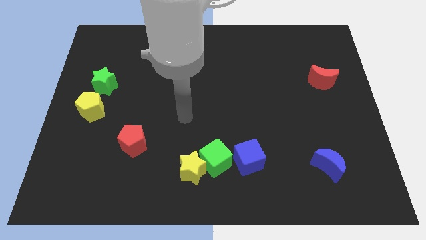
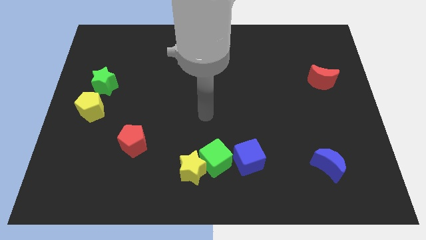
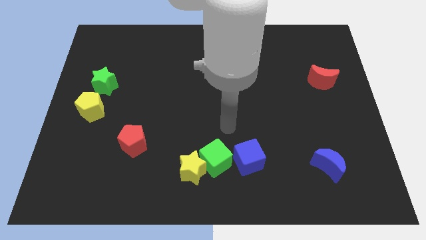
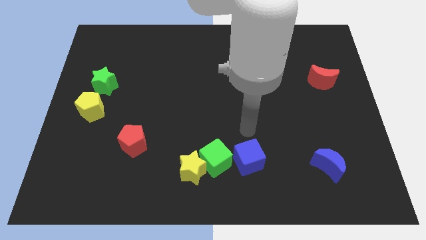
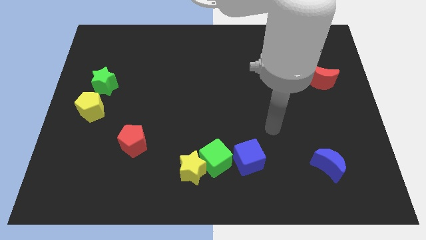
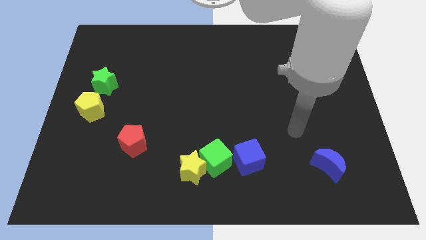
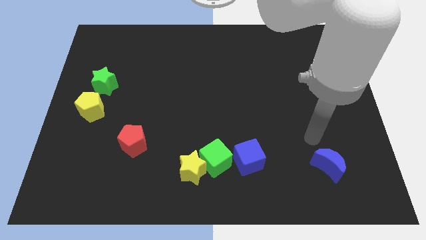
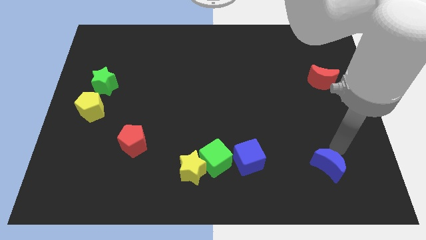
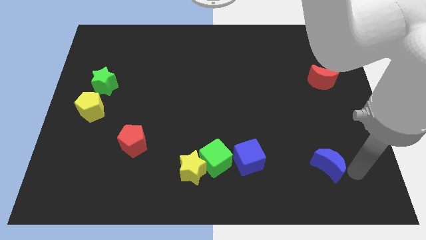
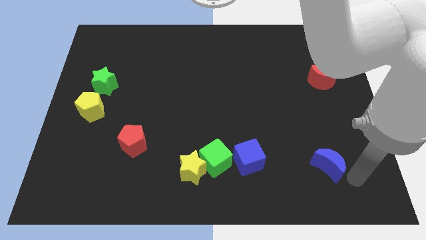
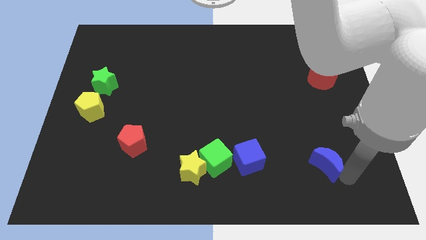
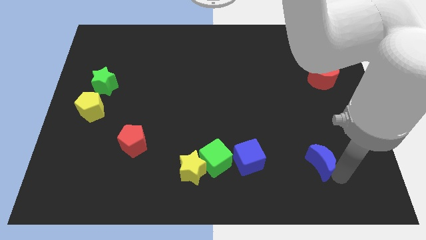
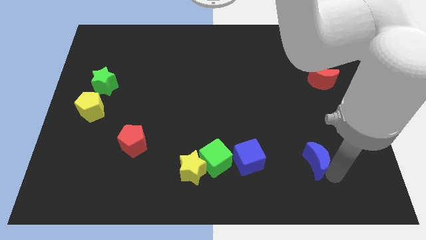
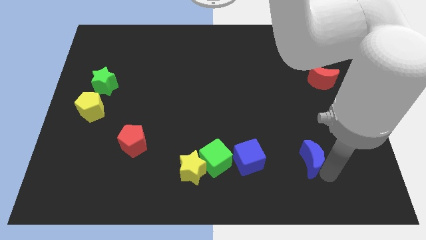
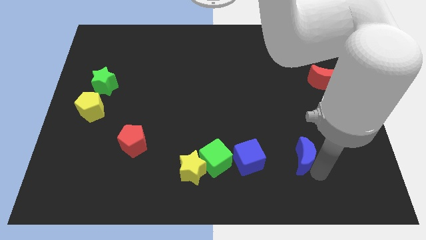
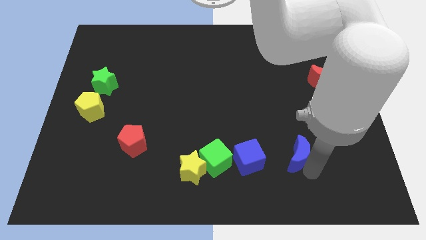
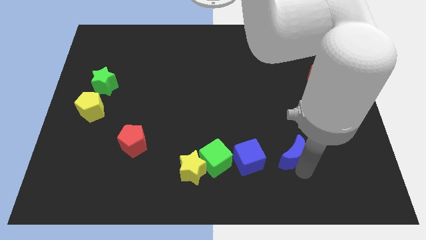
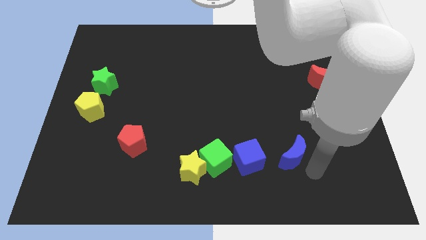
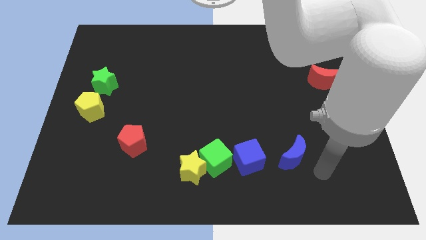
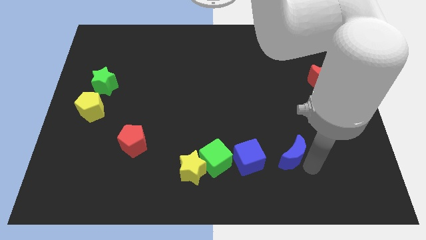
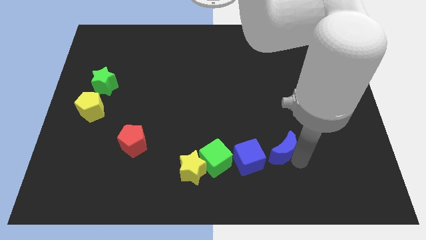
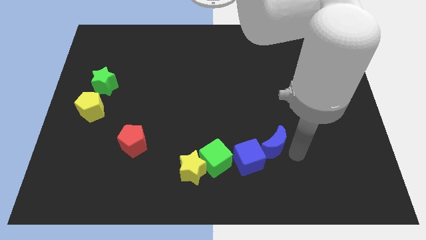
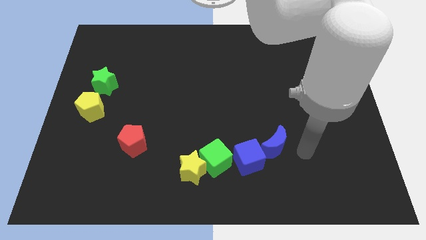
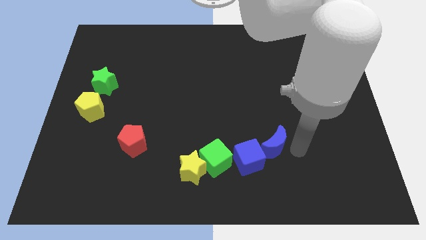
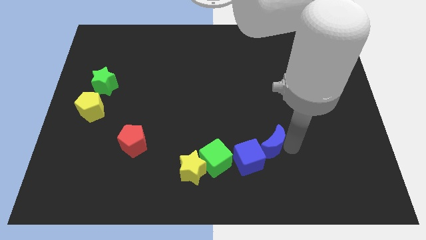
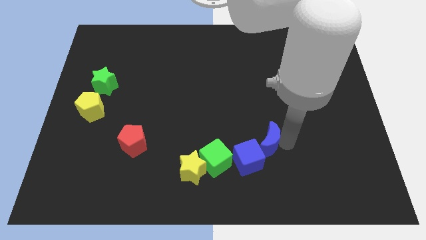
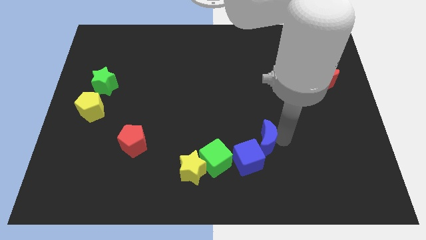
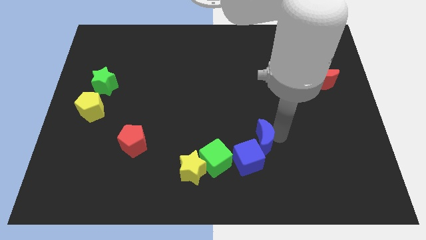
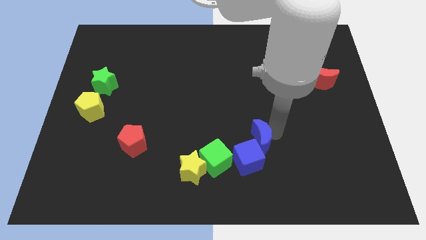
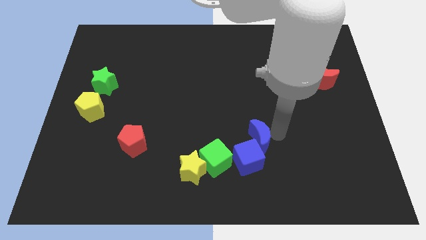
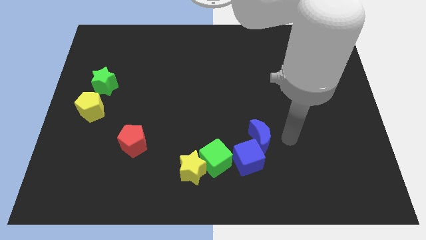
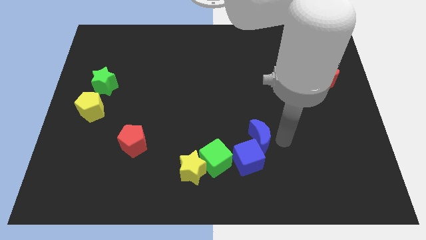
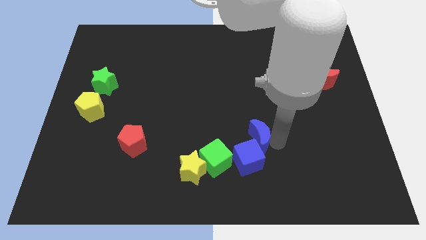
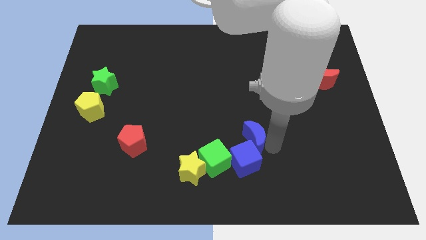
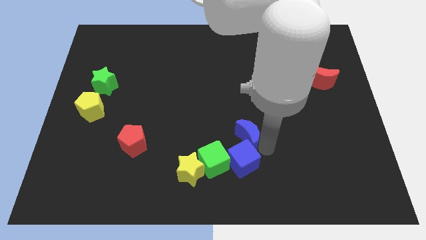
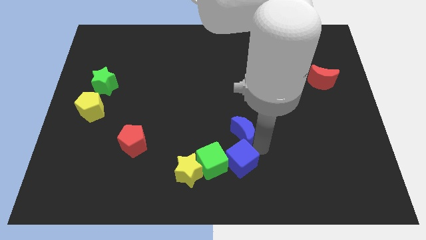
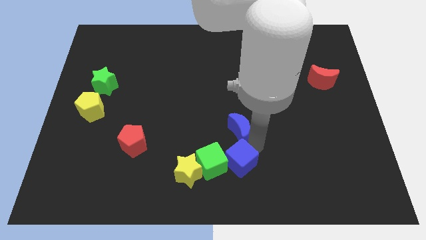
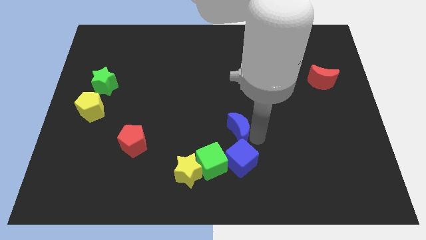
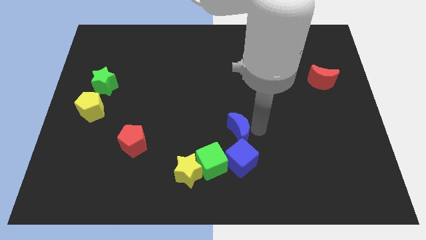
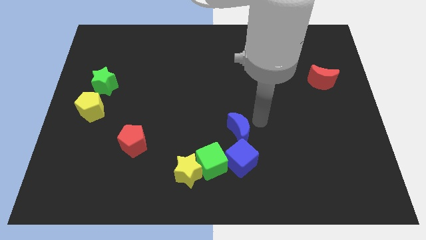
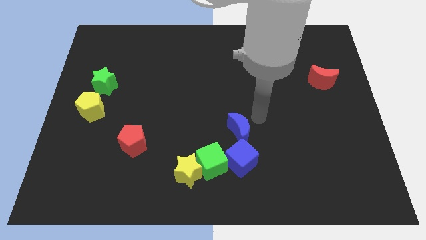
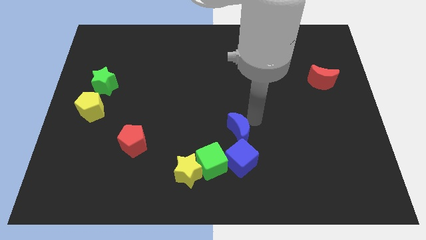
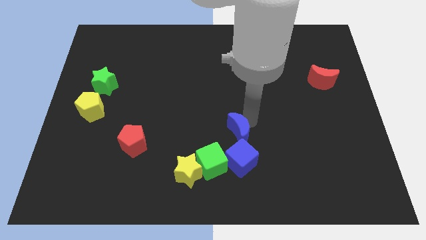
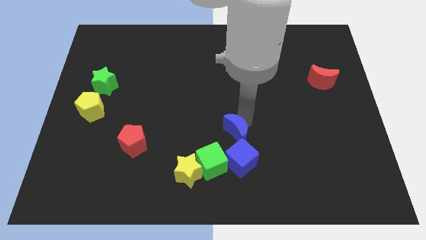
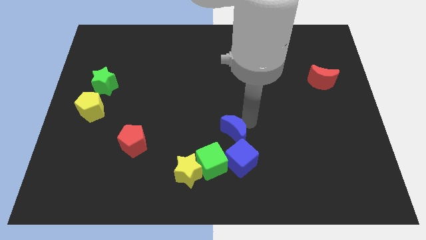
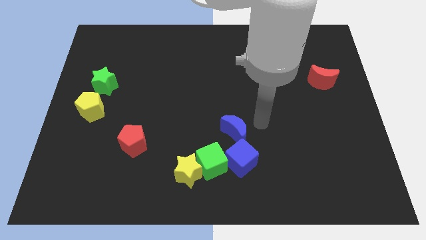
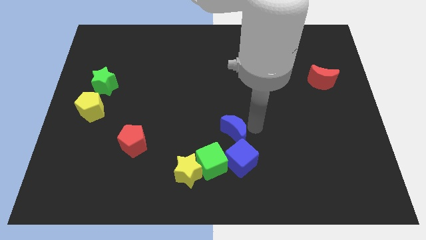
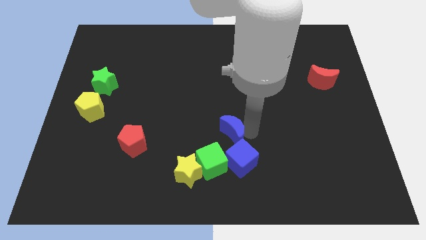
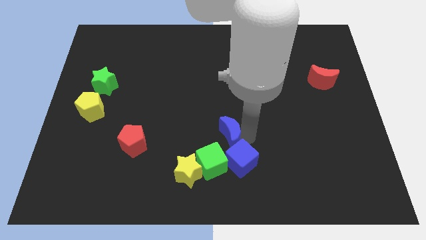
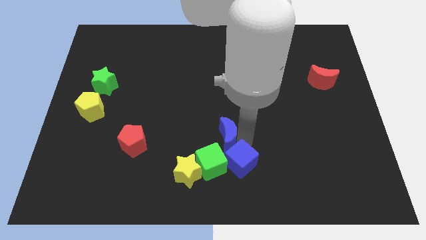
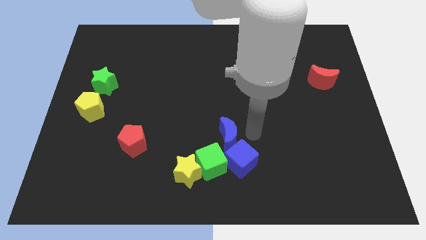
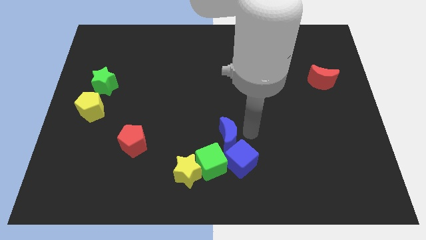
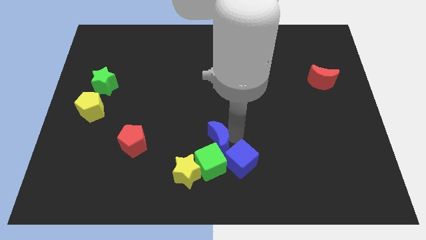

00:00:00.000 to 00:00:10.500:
slide the blue moon to the left

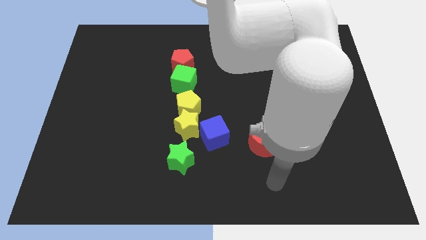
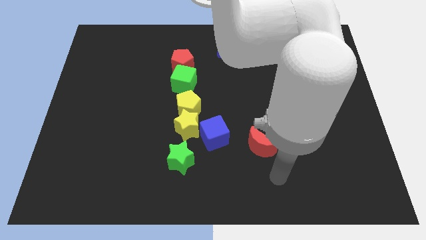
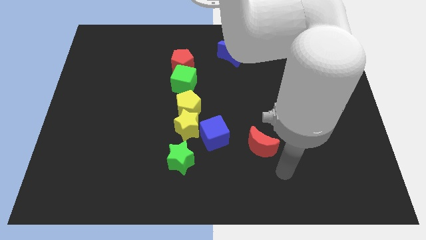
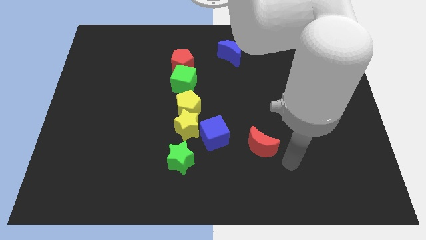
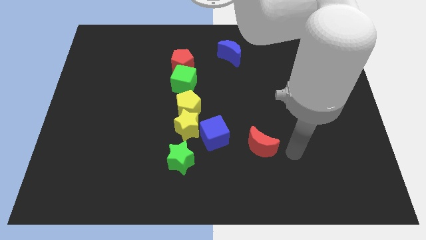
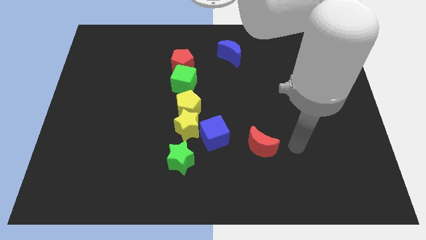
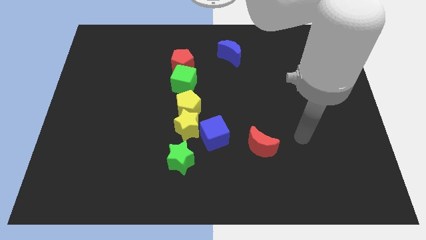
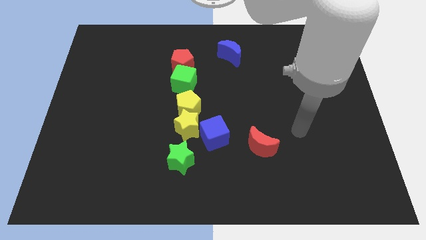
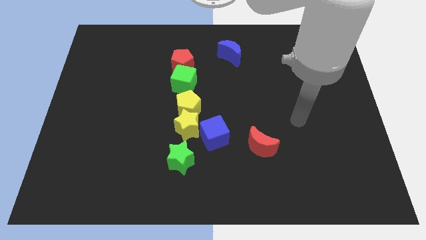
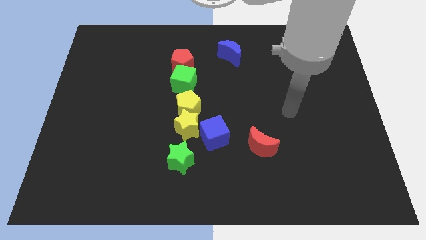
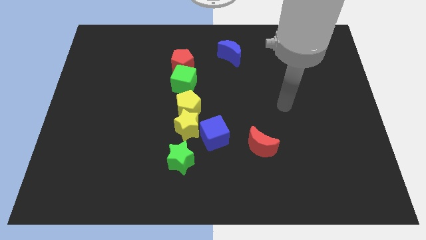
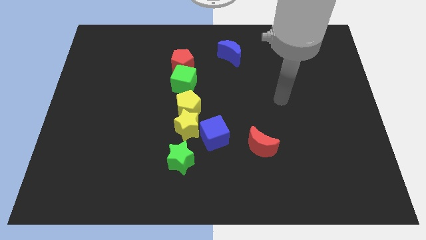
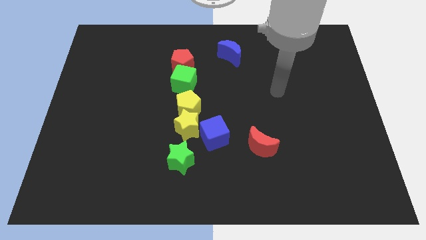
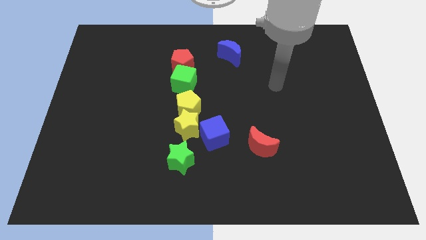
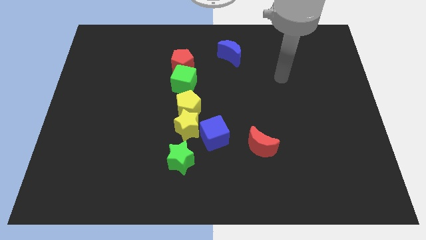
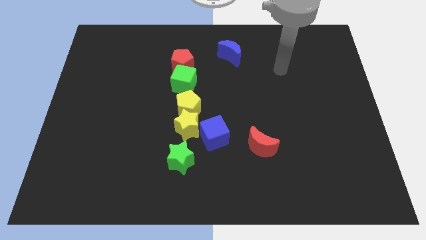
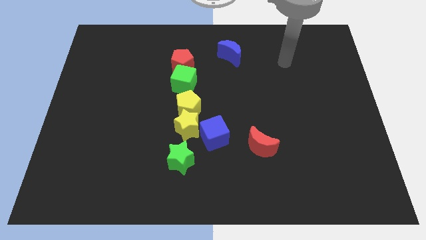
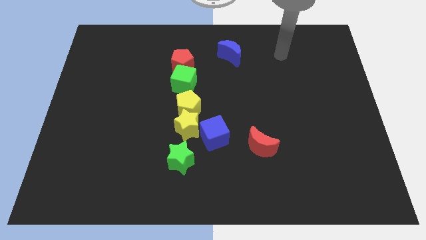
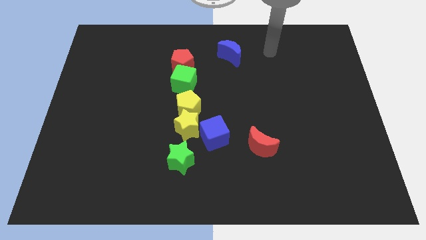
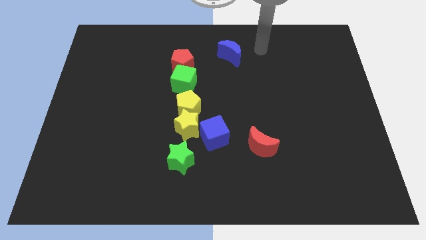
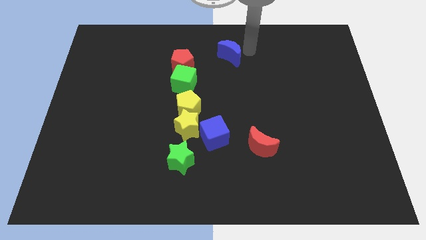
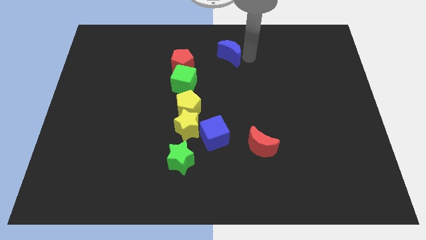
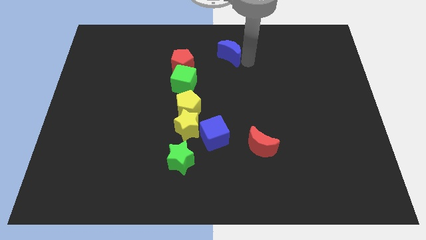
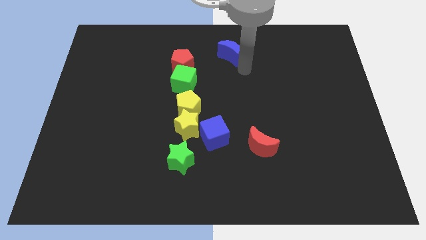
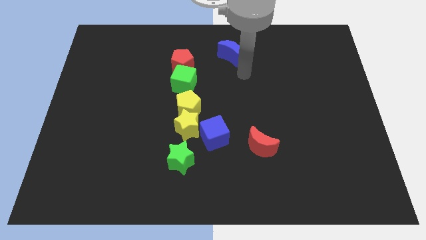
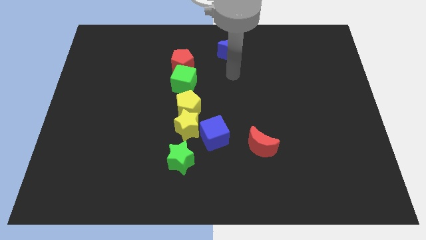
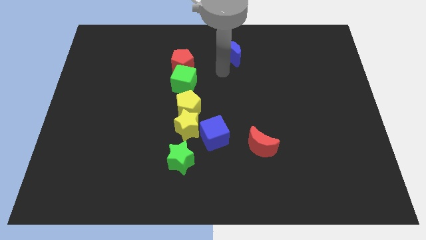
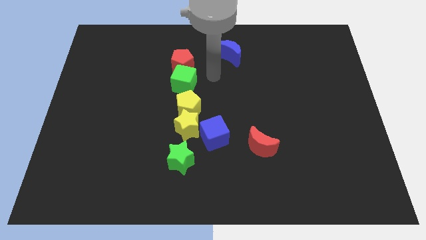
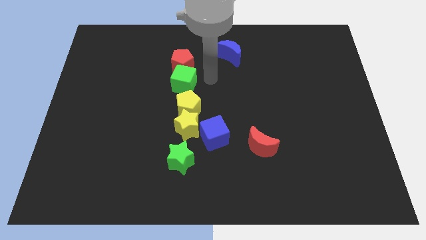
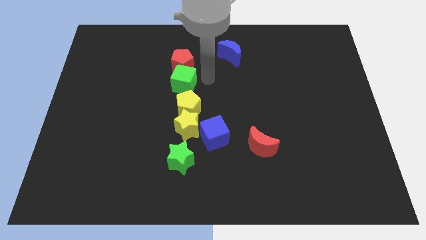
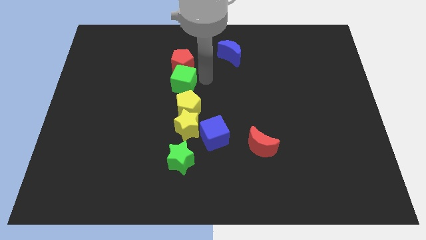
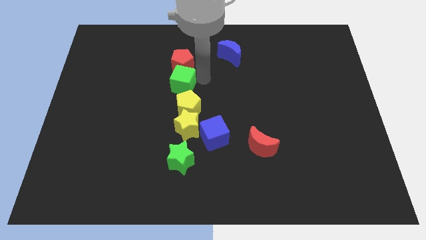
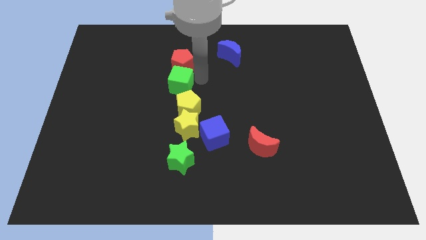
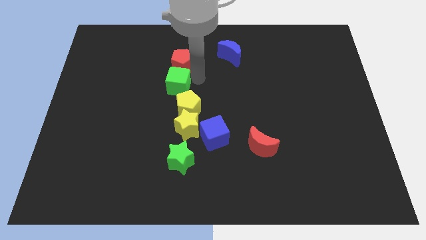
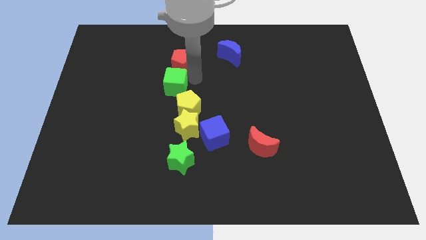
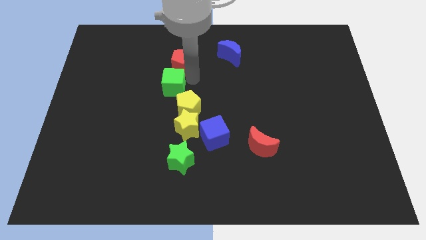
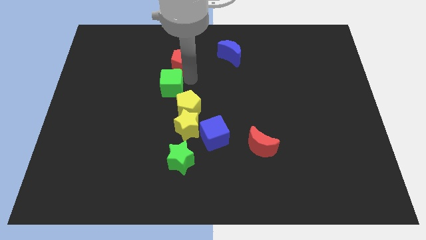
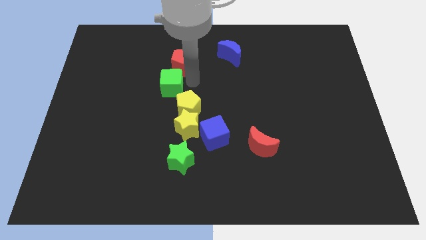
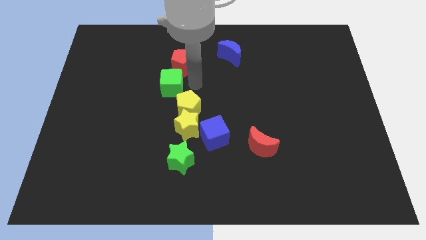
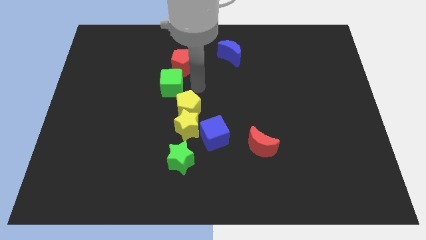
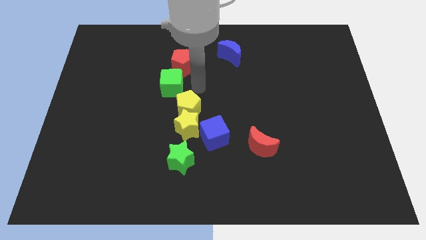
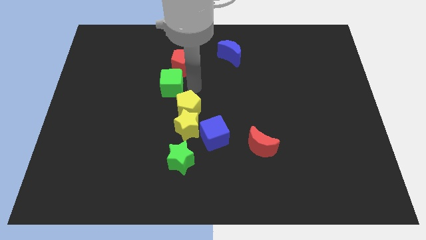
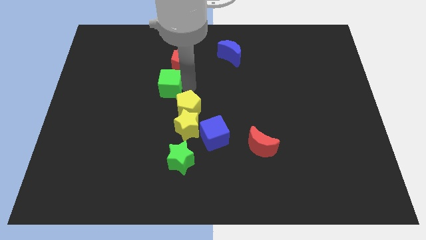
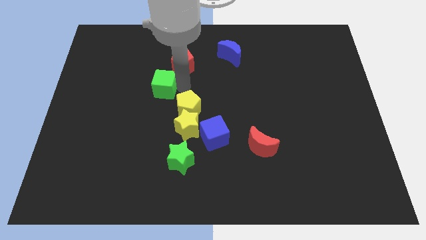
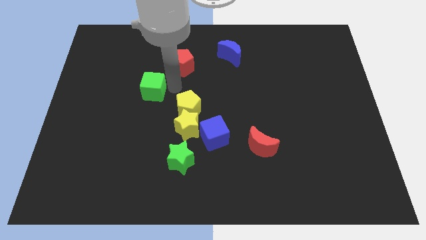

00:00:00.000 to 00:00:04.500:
push the green cube a bit left
